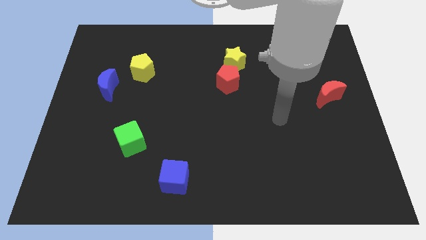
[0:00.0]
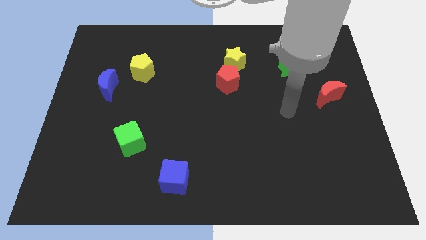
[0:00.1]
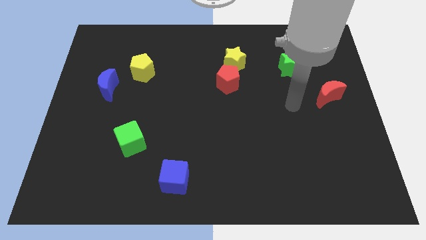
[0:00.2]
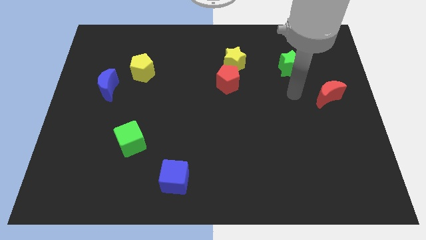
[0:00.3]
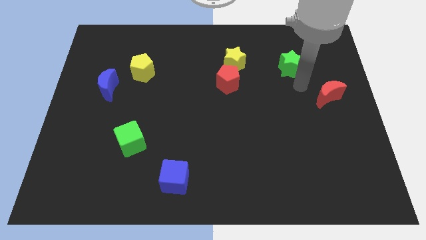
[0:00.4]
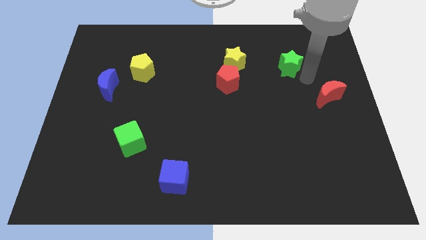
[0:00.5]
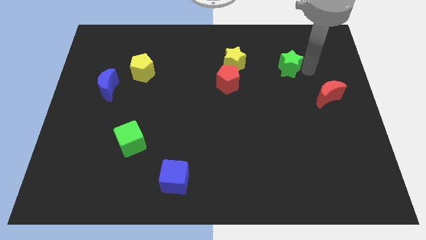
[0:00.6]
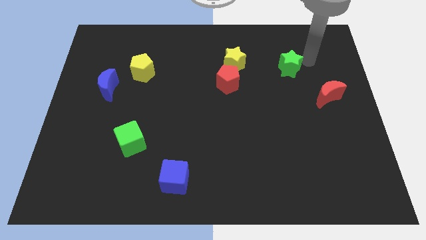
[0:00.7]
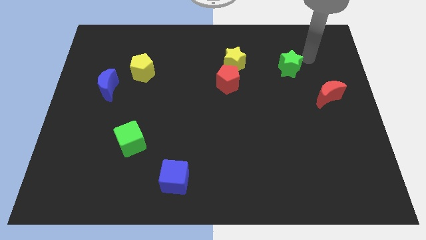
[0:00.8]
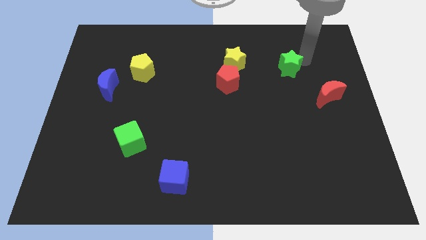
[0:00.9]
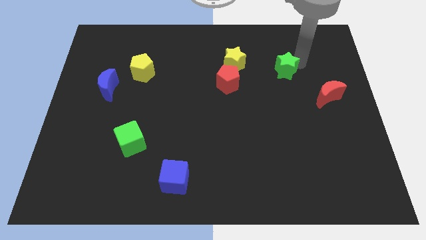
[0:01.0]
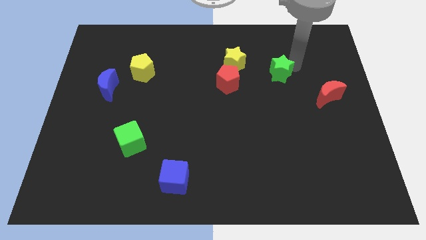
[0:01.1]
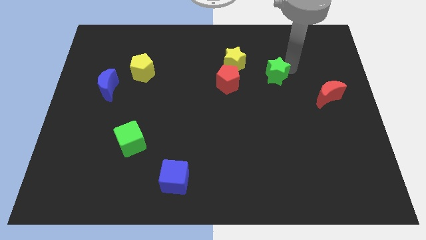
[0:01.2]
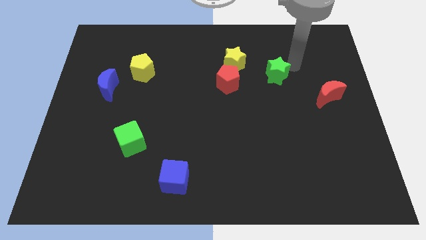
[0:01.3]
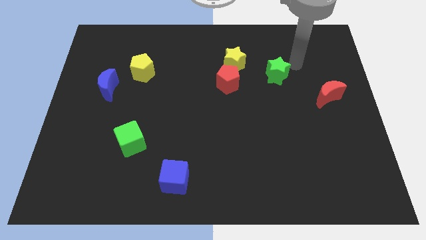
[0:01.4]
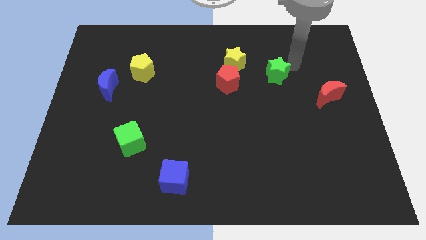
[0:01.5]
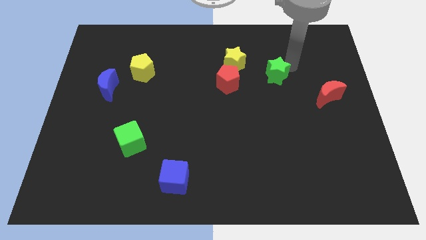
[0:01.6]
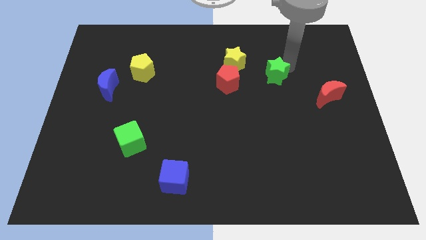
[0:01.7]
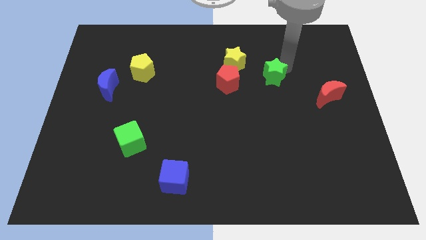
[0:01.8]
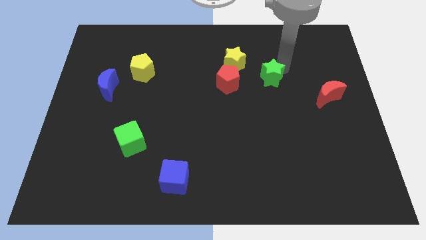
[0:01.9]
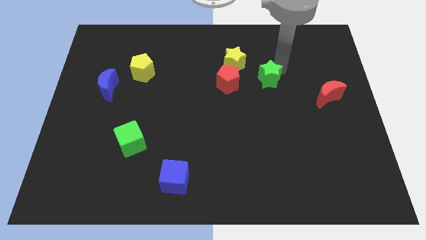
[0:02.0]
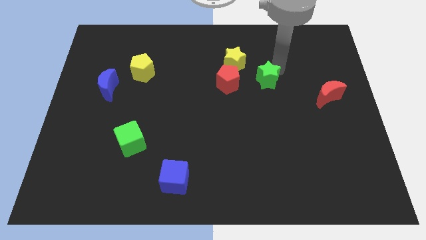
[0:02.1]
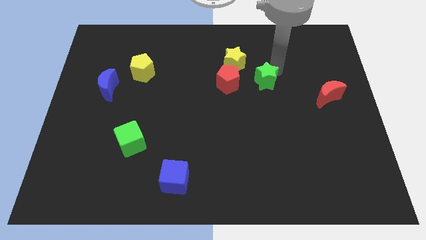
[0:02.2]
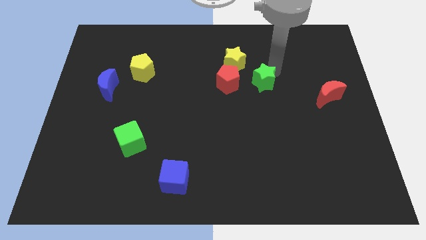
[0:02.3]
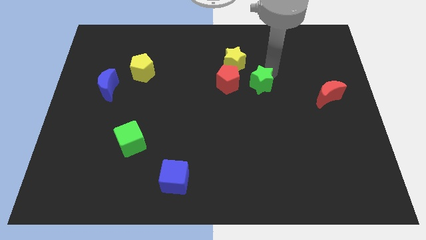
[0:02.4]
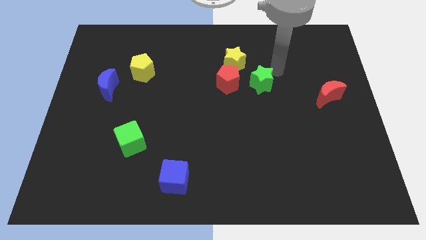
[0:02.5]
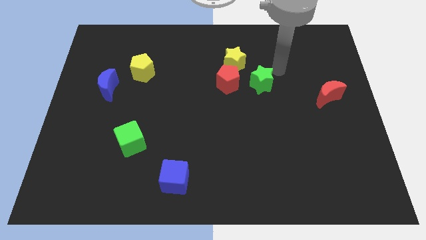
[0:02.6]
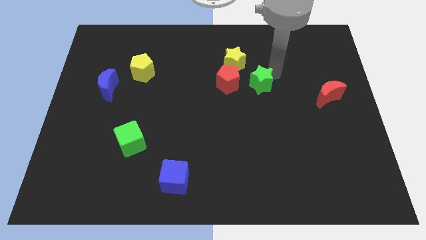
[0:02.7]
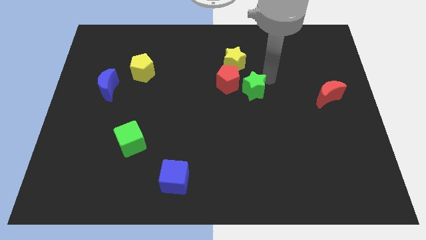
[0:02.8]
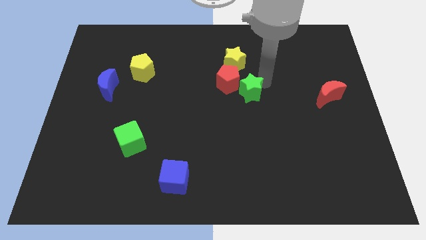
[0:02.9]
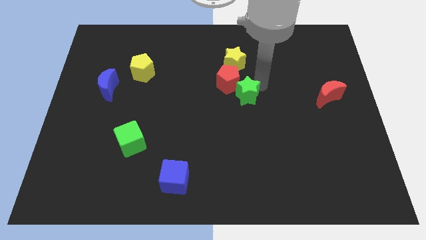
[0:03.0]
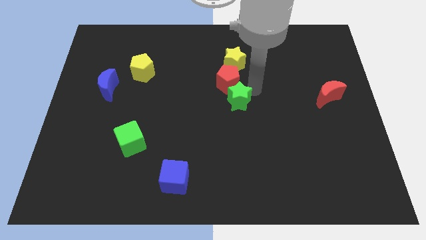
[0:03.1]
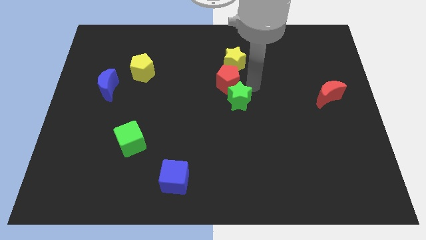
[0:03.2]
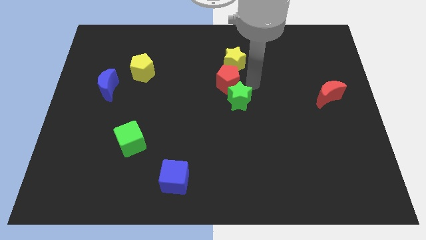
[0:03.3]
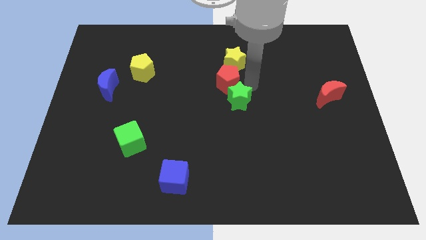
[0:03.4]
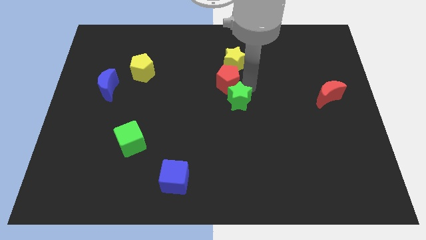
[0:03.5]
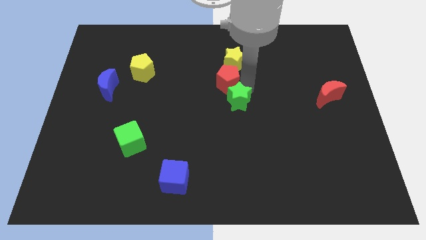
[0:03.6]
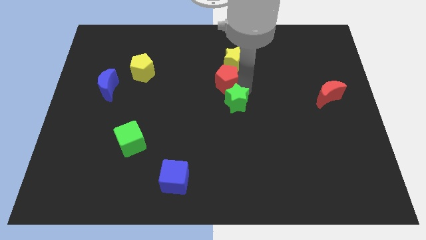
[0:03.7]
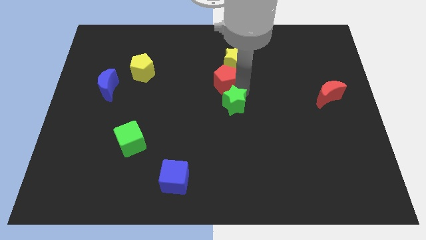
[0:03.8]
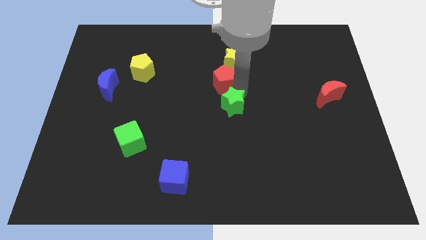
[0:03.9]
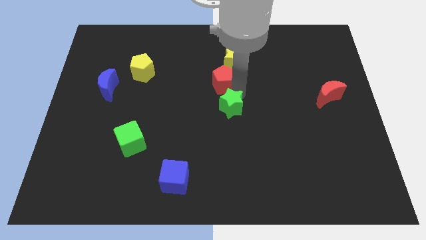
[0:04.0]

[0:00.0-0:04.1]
slide the green star downwards and left diagonally

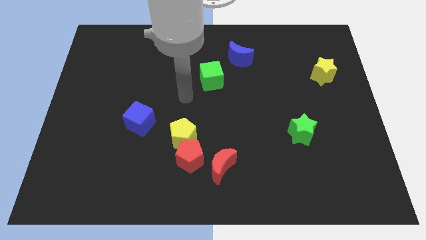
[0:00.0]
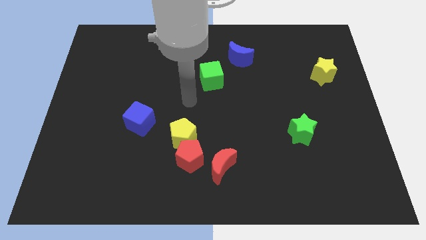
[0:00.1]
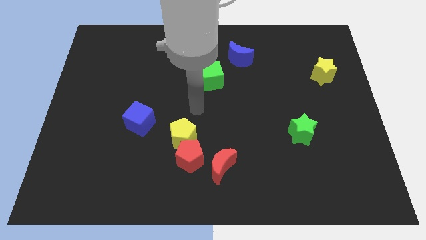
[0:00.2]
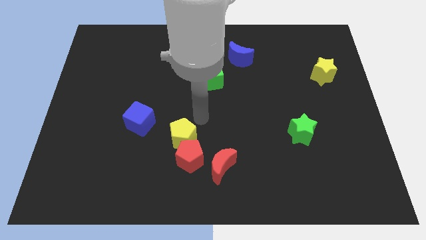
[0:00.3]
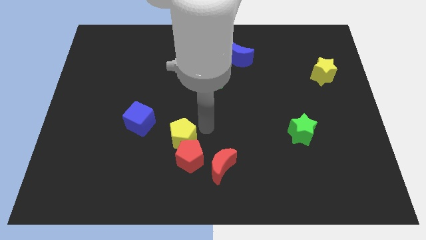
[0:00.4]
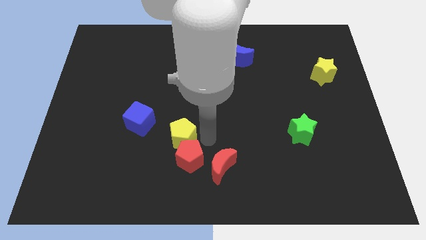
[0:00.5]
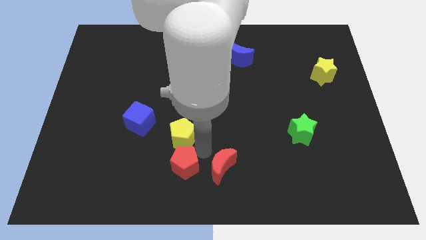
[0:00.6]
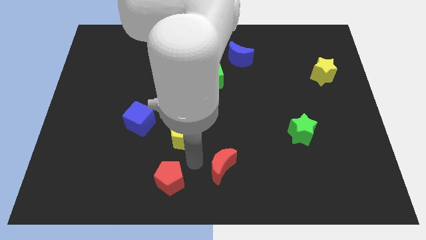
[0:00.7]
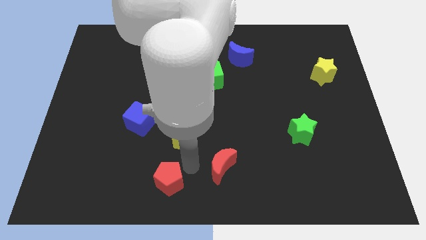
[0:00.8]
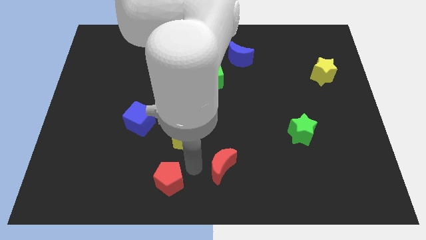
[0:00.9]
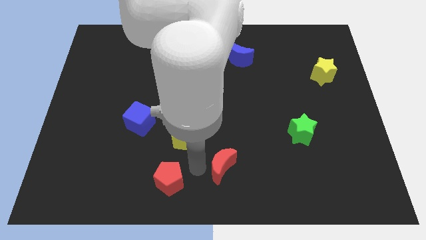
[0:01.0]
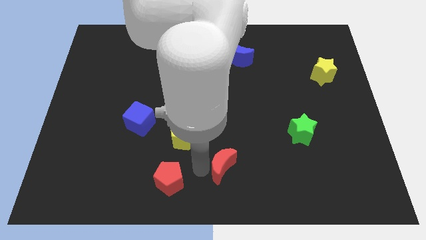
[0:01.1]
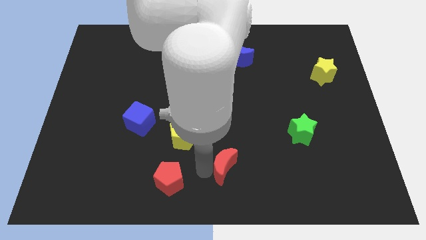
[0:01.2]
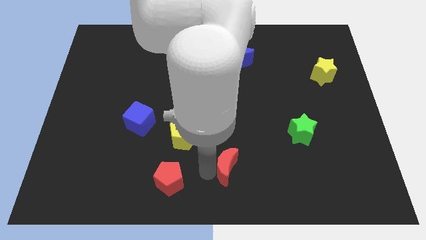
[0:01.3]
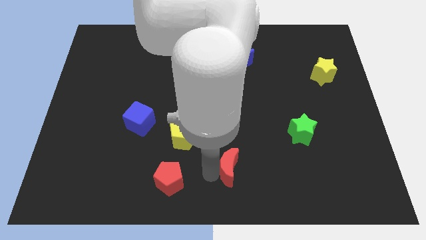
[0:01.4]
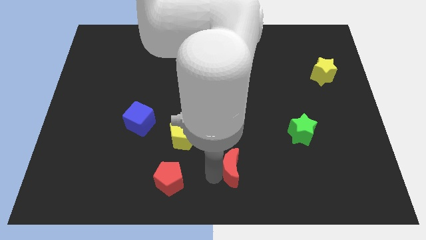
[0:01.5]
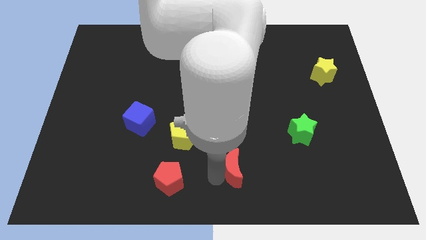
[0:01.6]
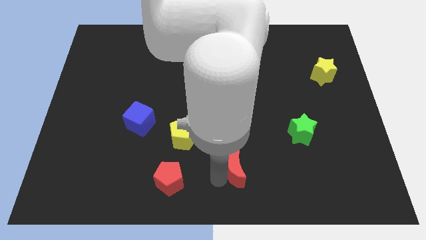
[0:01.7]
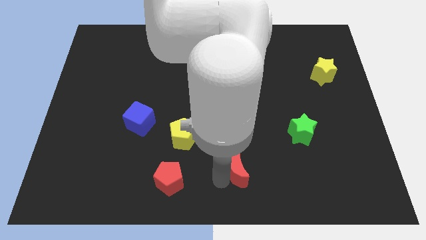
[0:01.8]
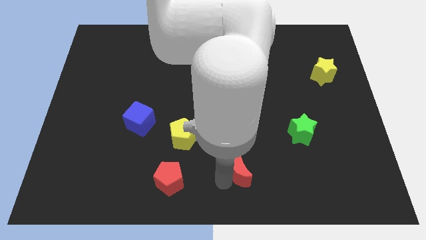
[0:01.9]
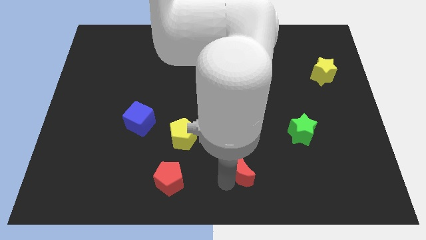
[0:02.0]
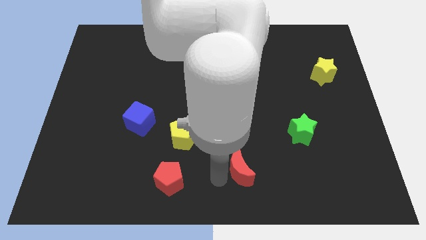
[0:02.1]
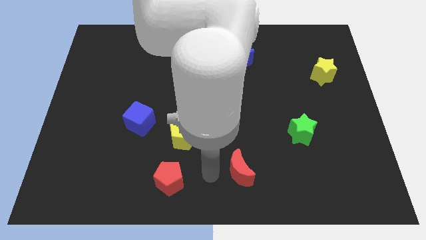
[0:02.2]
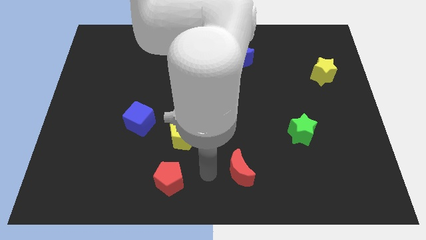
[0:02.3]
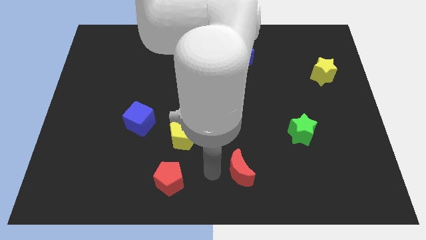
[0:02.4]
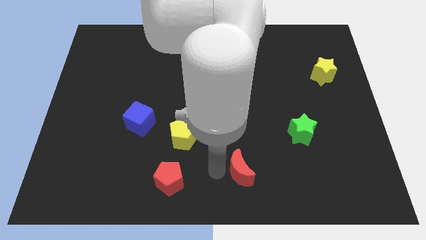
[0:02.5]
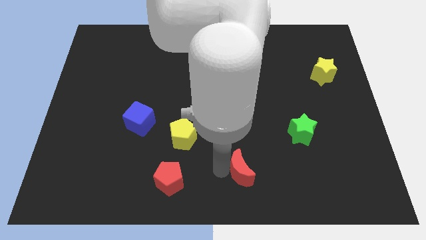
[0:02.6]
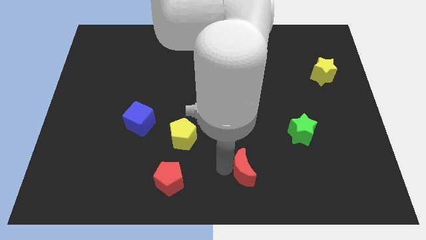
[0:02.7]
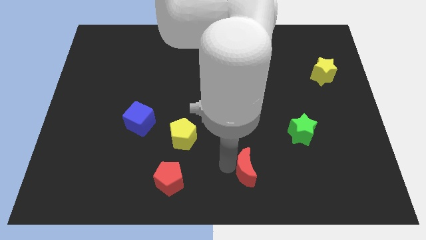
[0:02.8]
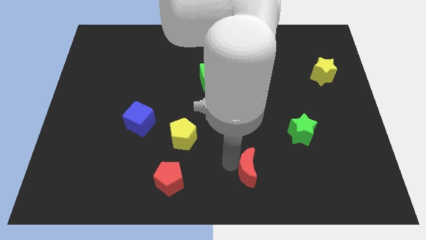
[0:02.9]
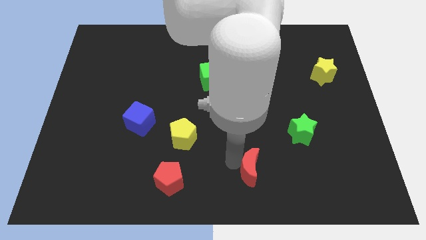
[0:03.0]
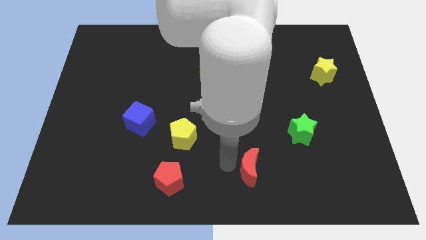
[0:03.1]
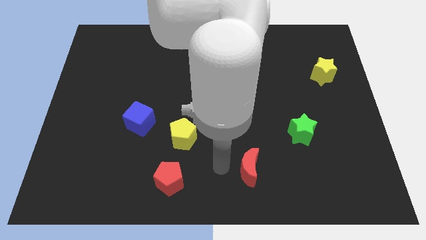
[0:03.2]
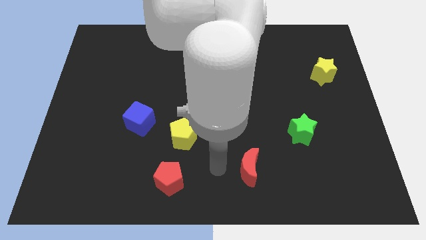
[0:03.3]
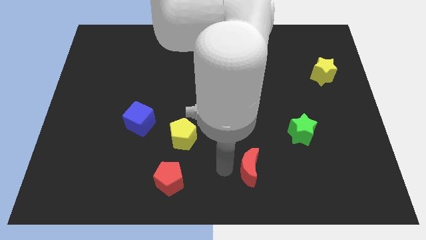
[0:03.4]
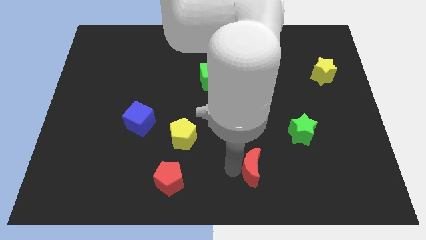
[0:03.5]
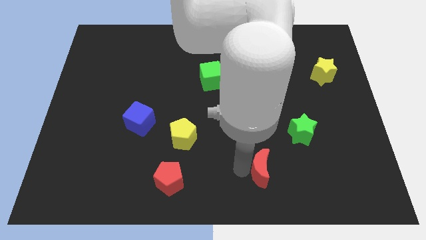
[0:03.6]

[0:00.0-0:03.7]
slightly push the red moon to the right

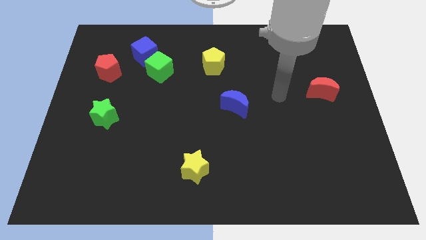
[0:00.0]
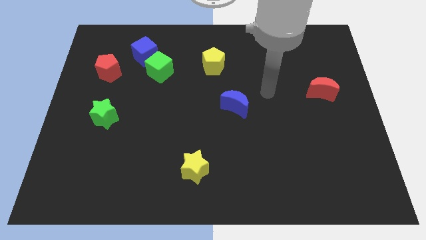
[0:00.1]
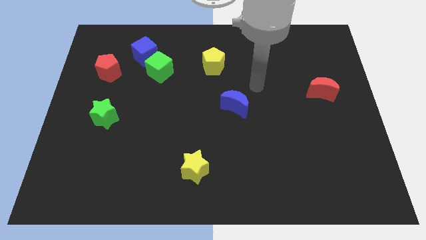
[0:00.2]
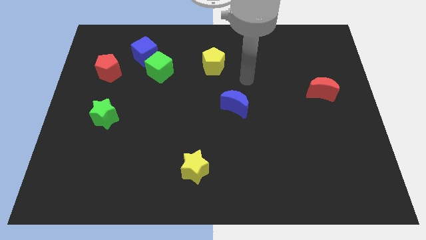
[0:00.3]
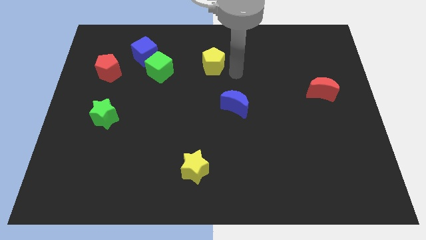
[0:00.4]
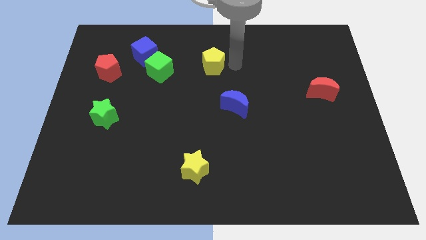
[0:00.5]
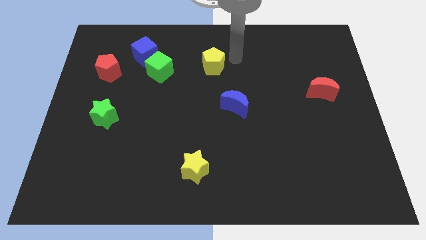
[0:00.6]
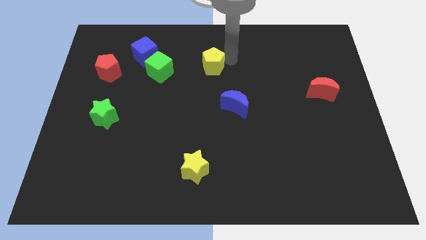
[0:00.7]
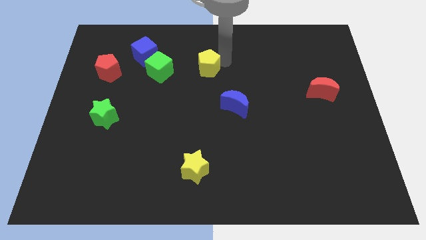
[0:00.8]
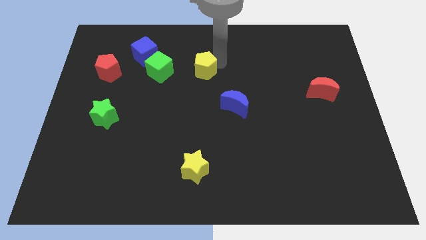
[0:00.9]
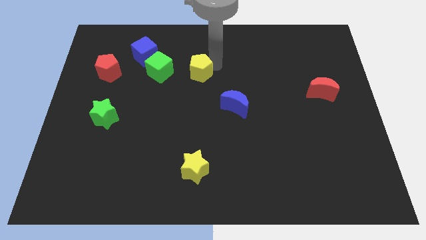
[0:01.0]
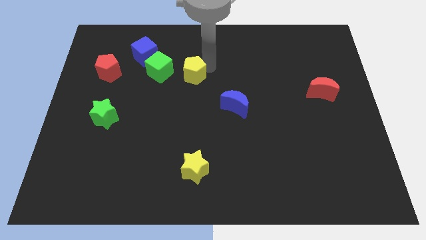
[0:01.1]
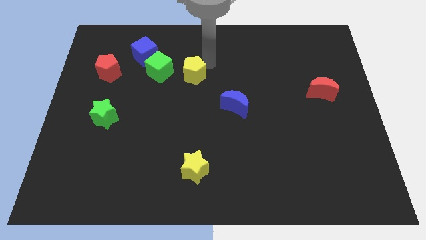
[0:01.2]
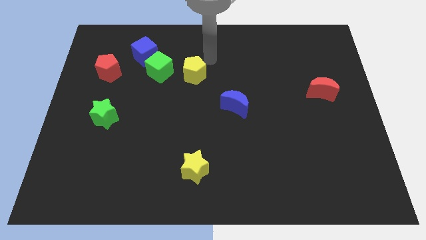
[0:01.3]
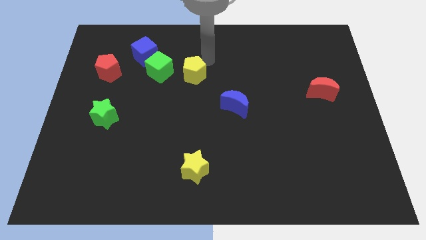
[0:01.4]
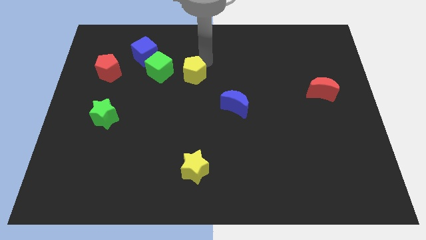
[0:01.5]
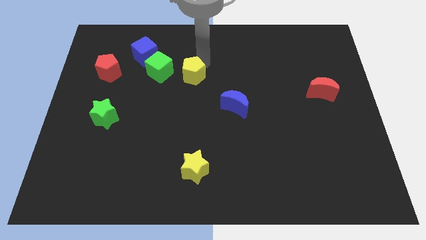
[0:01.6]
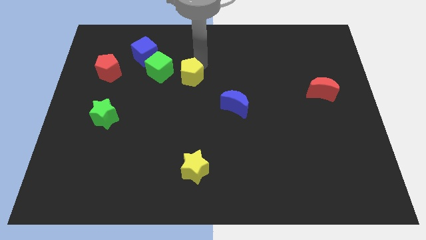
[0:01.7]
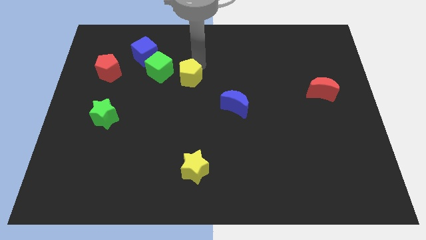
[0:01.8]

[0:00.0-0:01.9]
move the yellow pentagon somewhat downwards and then left
